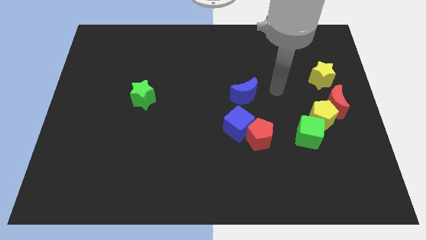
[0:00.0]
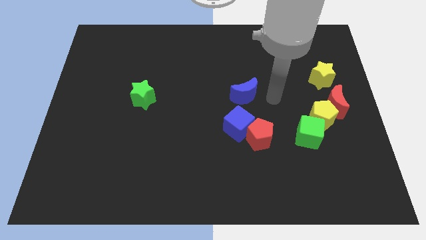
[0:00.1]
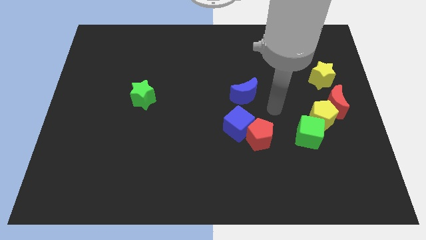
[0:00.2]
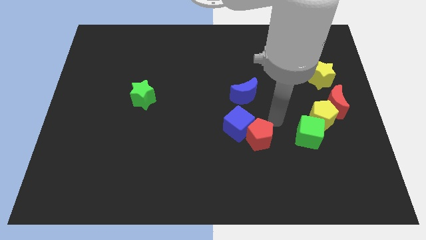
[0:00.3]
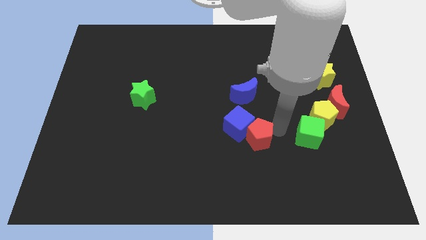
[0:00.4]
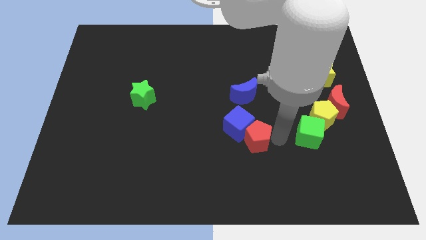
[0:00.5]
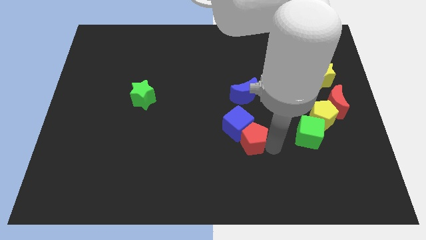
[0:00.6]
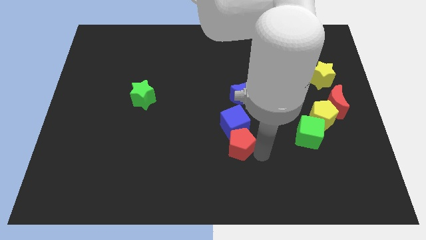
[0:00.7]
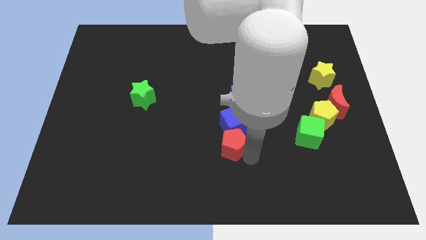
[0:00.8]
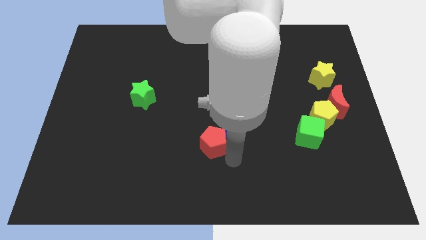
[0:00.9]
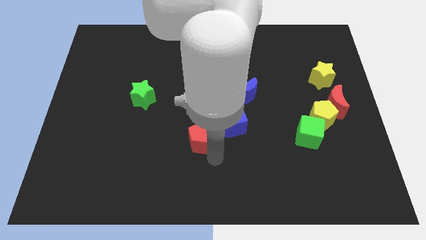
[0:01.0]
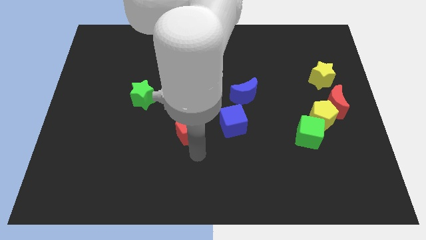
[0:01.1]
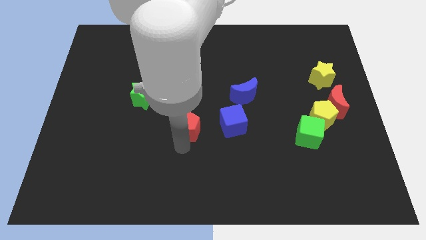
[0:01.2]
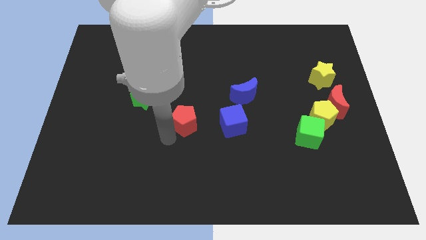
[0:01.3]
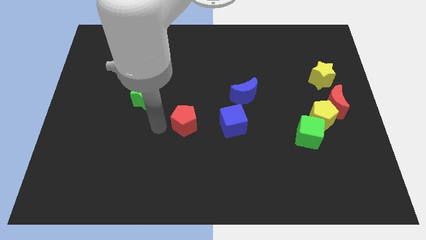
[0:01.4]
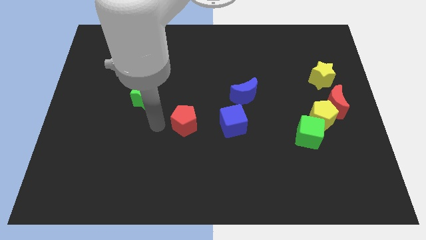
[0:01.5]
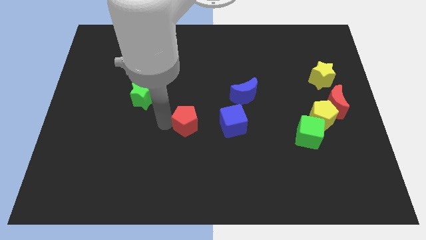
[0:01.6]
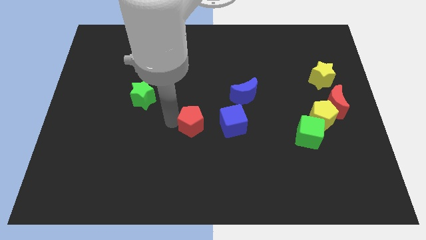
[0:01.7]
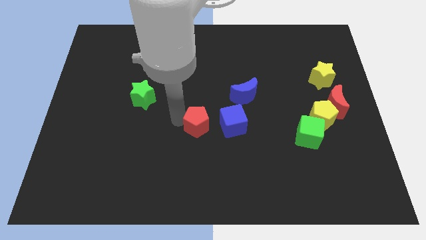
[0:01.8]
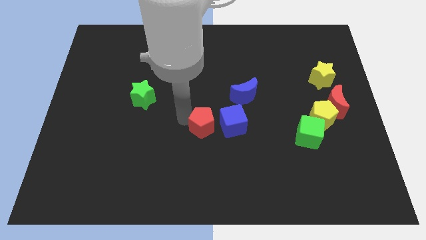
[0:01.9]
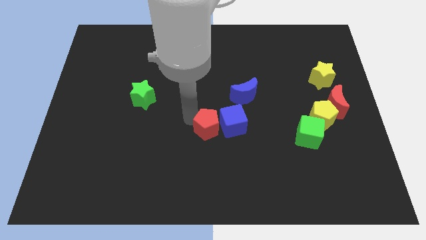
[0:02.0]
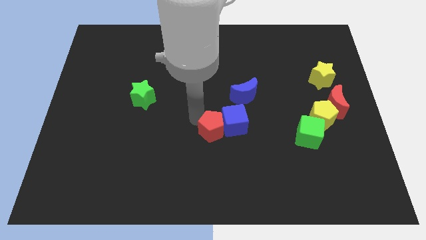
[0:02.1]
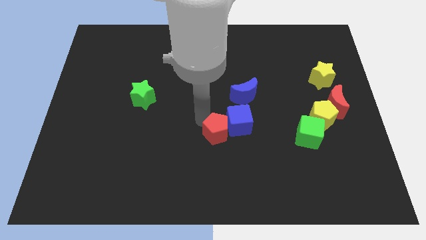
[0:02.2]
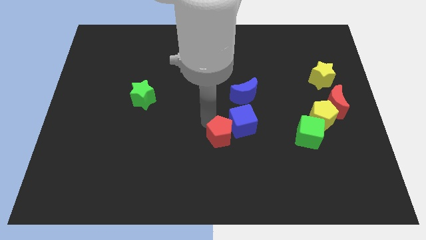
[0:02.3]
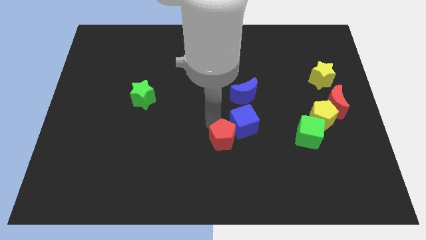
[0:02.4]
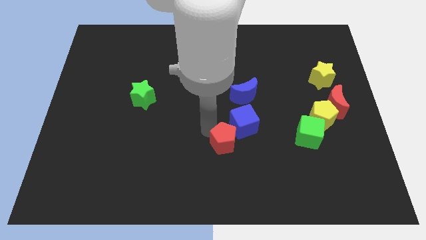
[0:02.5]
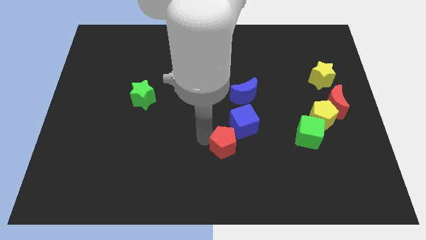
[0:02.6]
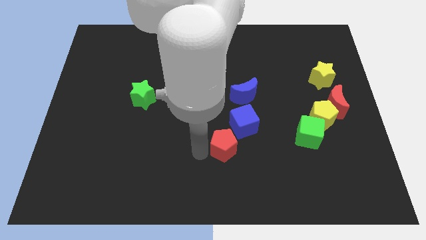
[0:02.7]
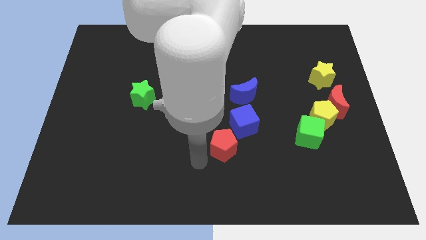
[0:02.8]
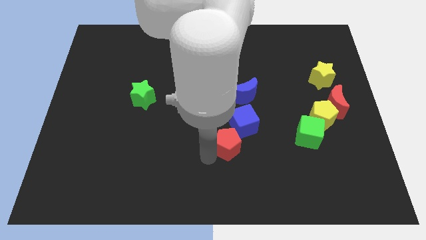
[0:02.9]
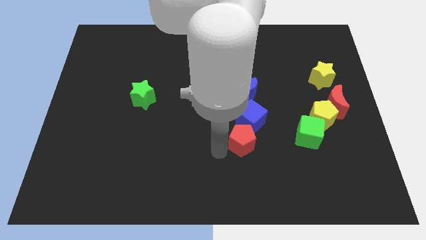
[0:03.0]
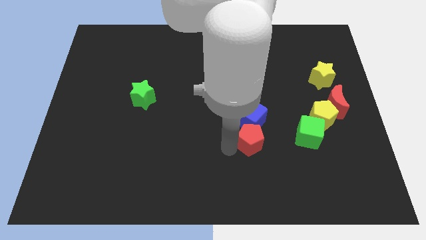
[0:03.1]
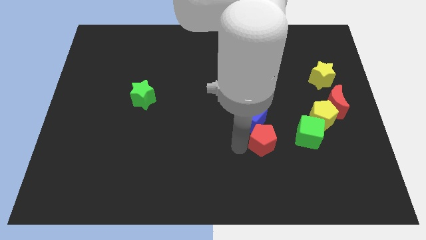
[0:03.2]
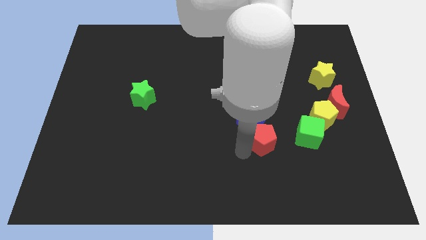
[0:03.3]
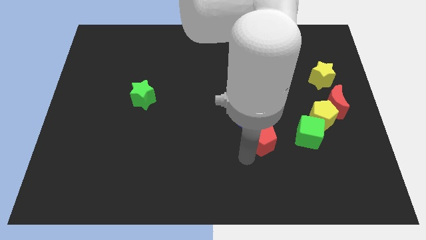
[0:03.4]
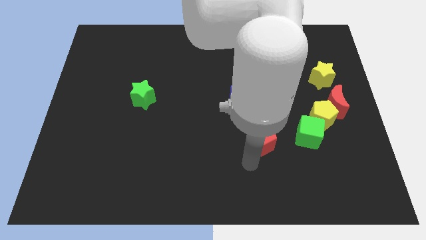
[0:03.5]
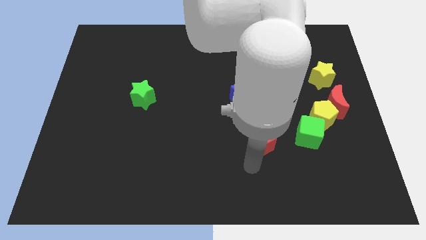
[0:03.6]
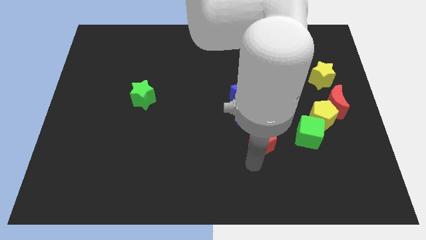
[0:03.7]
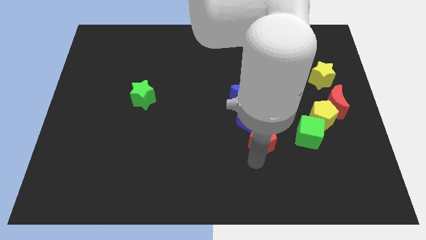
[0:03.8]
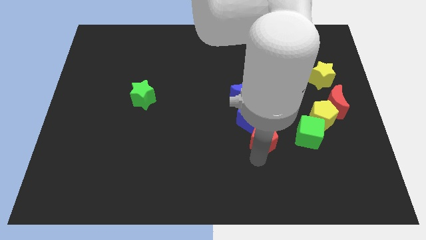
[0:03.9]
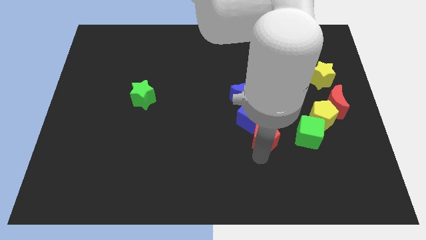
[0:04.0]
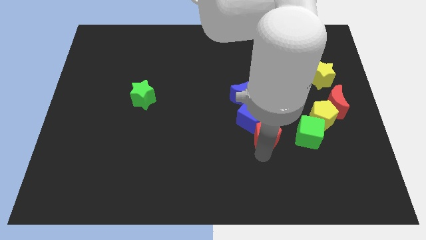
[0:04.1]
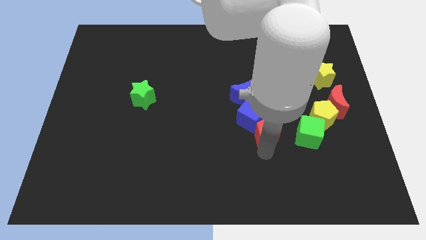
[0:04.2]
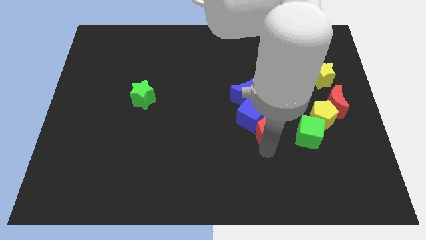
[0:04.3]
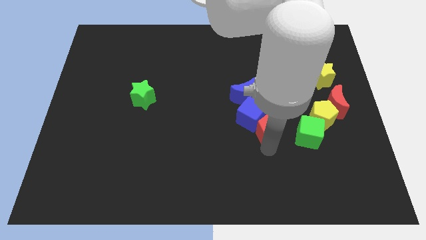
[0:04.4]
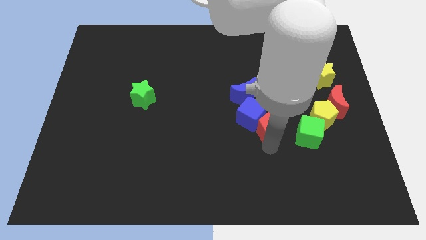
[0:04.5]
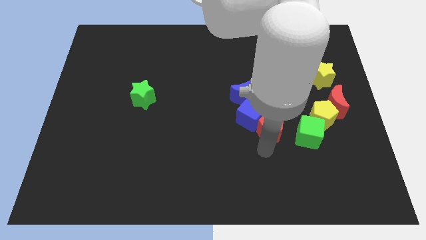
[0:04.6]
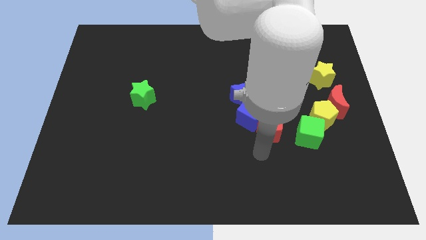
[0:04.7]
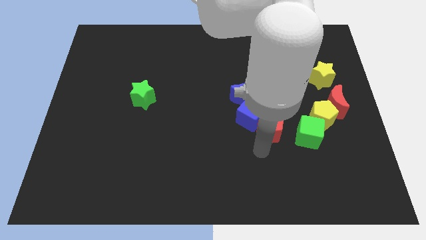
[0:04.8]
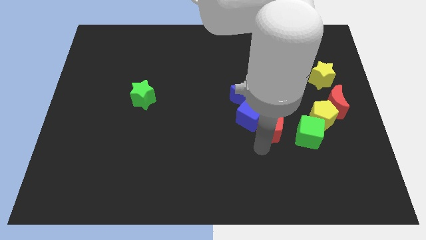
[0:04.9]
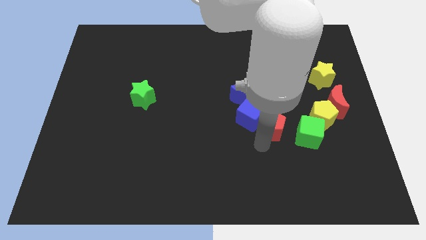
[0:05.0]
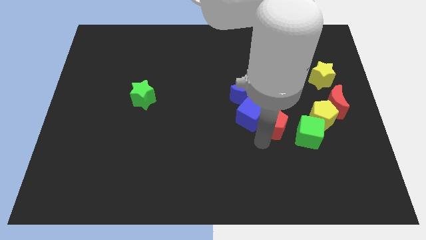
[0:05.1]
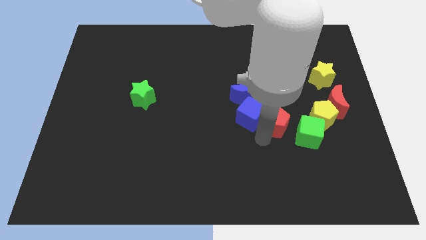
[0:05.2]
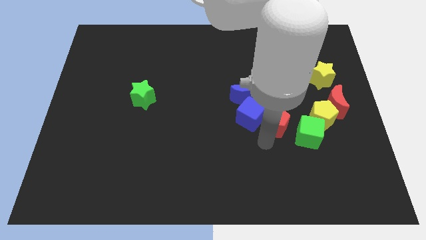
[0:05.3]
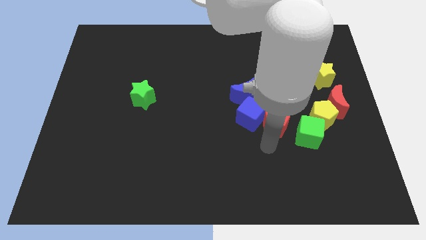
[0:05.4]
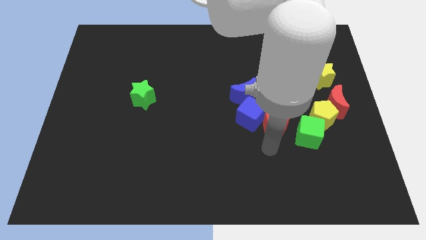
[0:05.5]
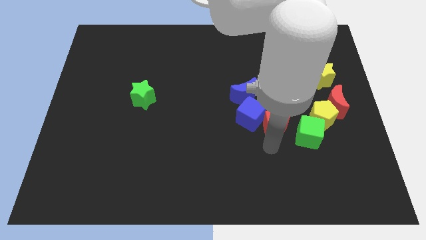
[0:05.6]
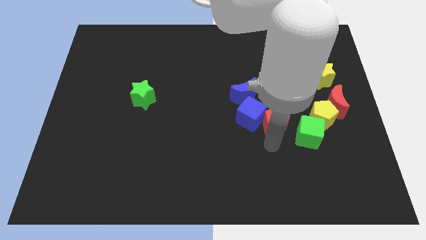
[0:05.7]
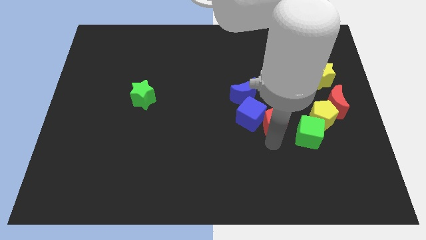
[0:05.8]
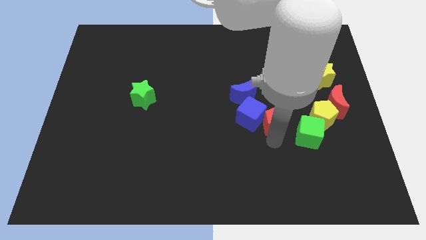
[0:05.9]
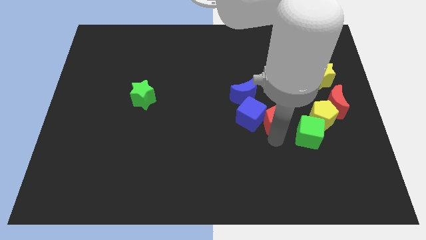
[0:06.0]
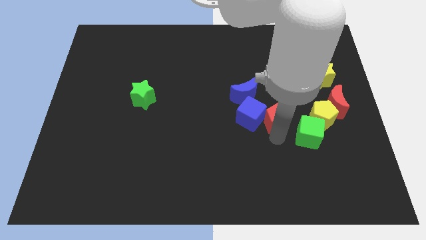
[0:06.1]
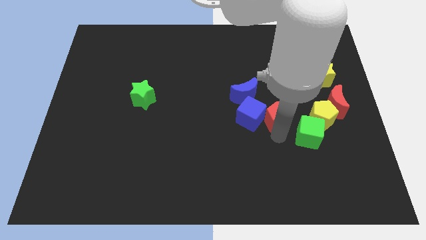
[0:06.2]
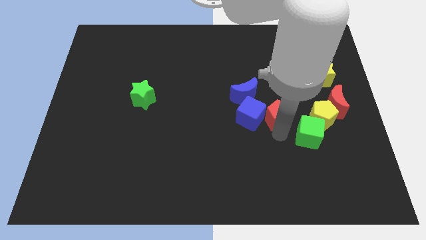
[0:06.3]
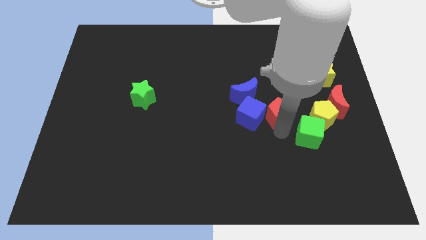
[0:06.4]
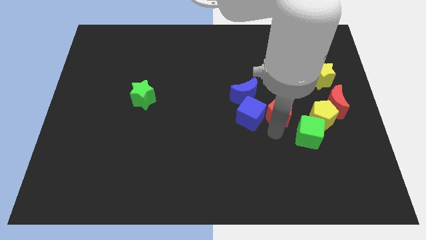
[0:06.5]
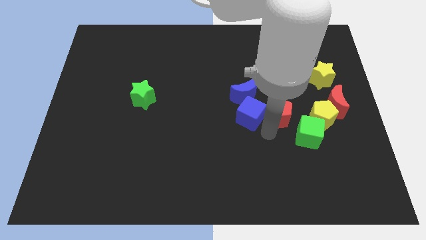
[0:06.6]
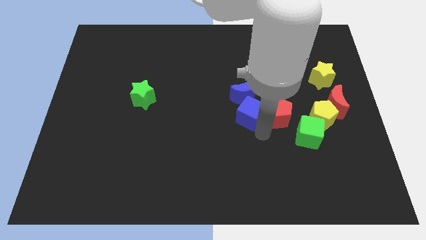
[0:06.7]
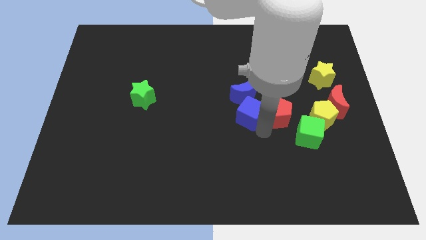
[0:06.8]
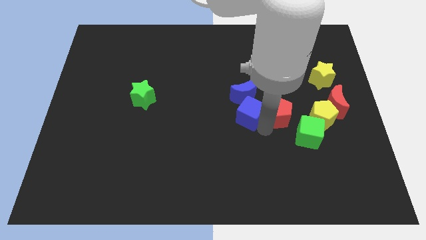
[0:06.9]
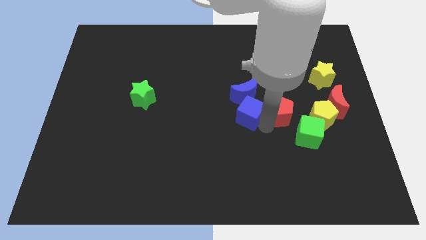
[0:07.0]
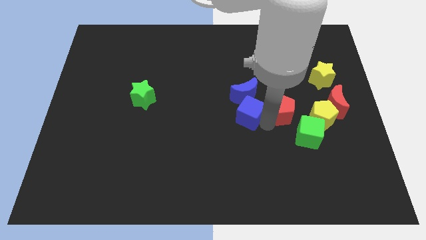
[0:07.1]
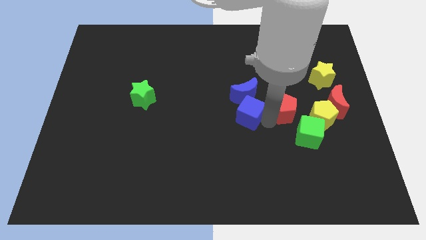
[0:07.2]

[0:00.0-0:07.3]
put the red pentagon to the top left of the yellow pentagon
